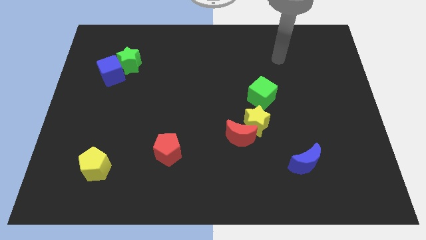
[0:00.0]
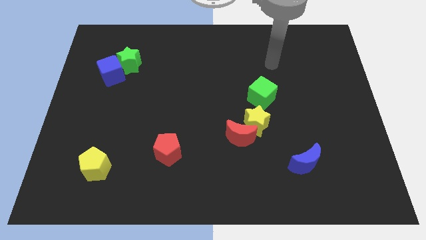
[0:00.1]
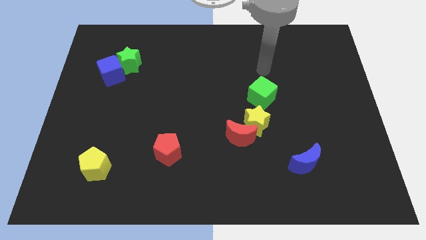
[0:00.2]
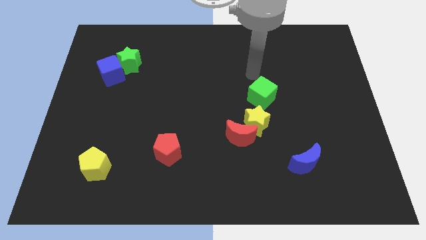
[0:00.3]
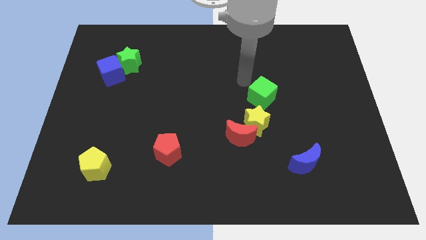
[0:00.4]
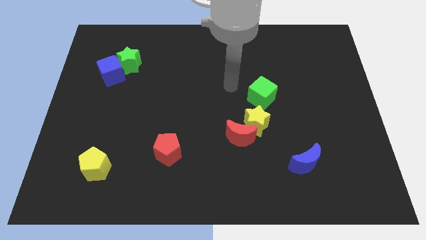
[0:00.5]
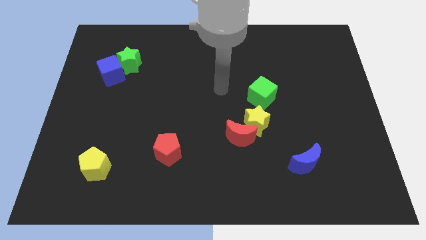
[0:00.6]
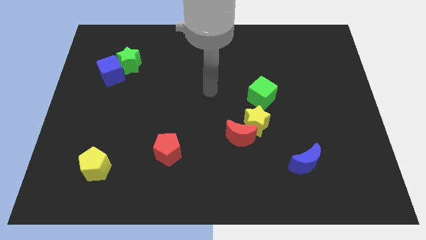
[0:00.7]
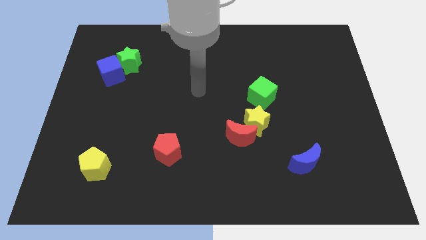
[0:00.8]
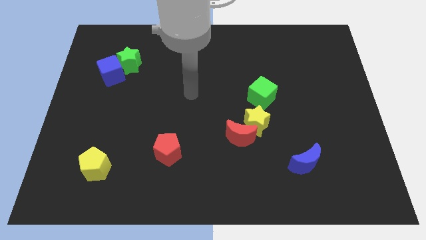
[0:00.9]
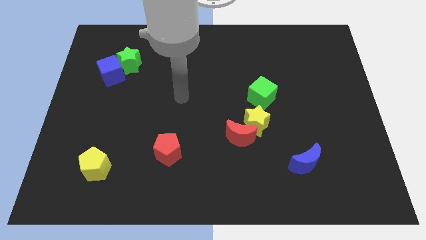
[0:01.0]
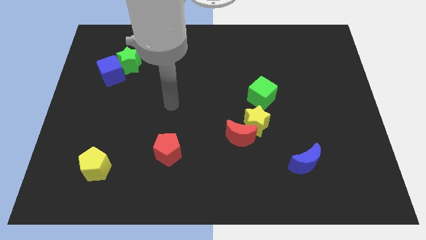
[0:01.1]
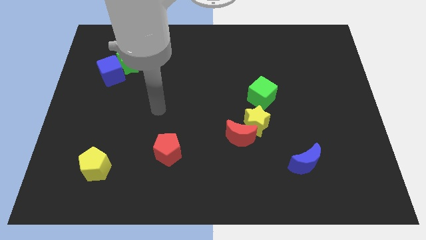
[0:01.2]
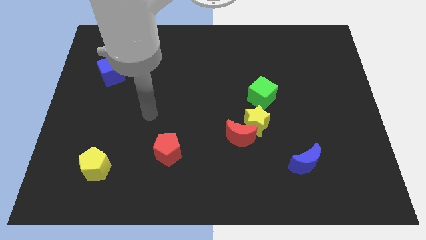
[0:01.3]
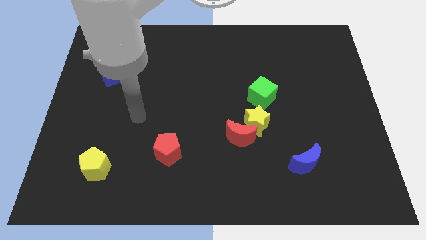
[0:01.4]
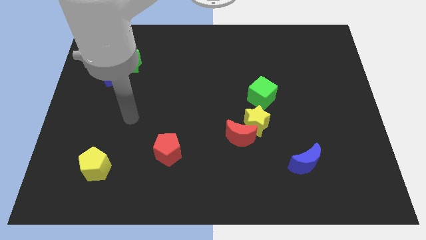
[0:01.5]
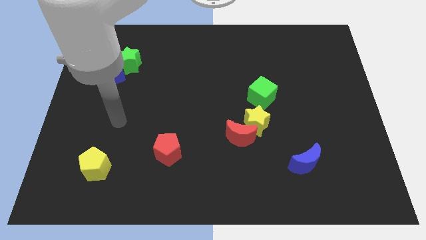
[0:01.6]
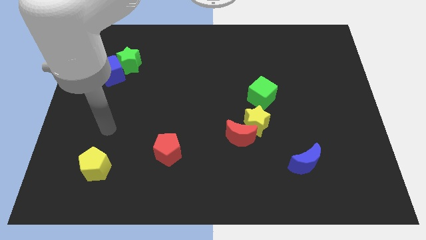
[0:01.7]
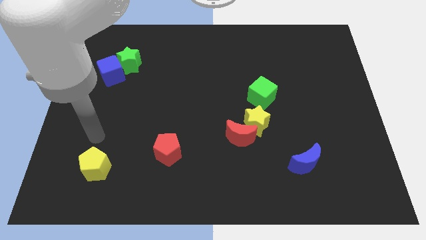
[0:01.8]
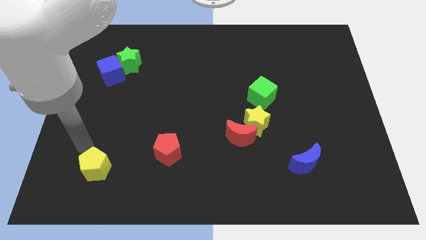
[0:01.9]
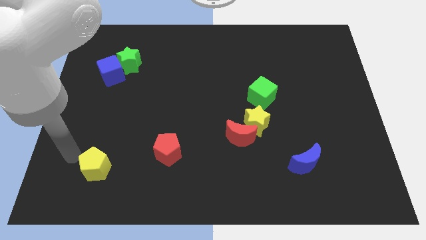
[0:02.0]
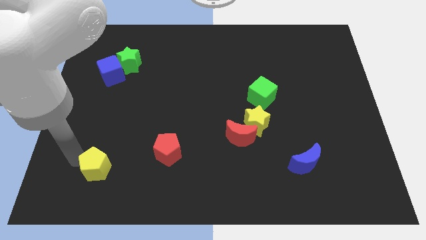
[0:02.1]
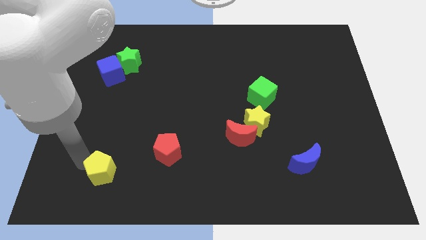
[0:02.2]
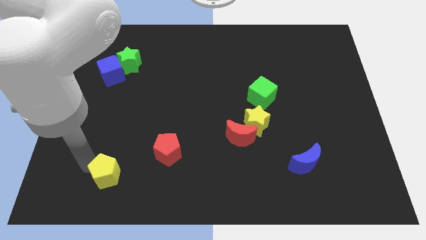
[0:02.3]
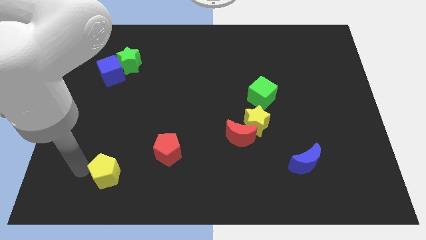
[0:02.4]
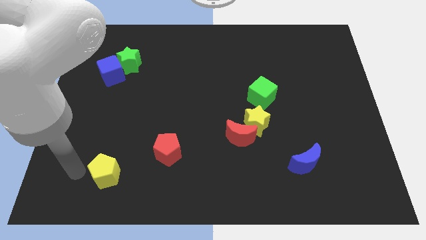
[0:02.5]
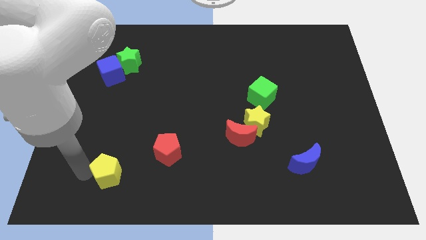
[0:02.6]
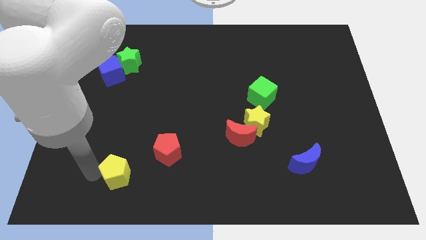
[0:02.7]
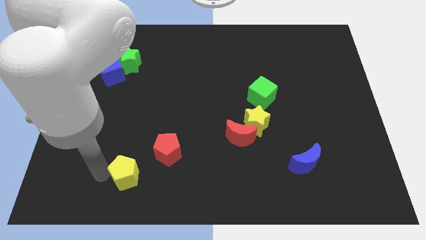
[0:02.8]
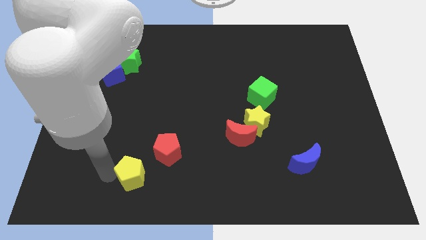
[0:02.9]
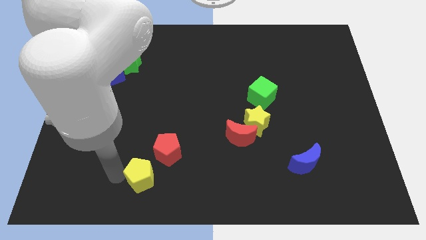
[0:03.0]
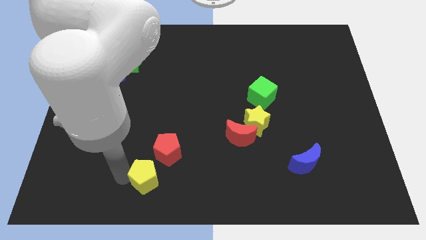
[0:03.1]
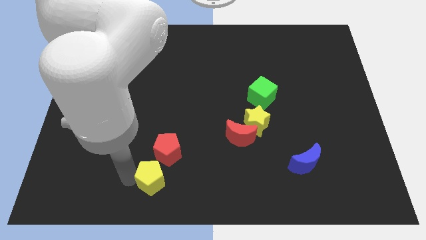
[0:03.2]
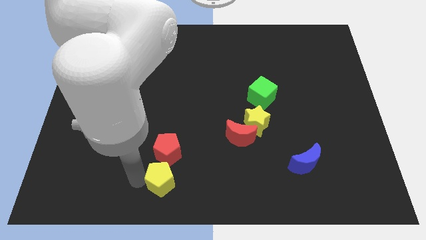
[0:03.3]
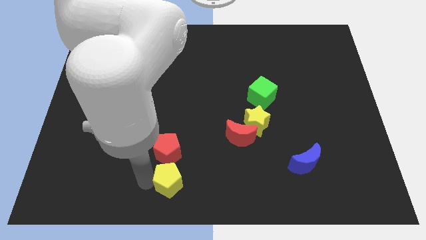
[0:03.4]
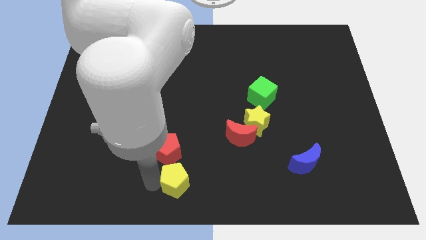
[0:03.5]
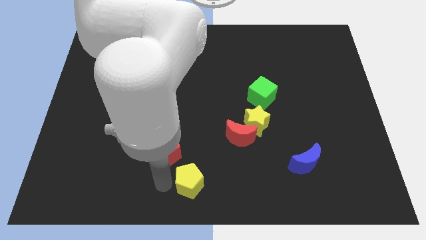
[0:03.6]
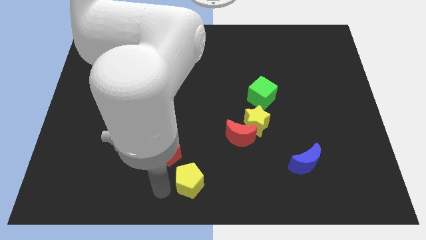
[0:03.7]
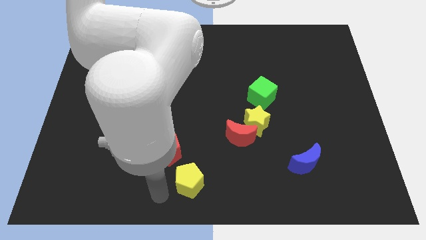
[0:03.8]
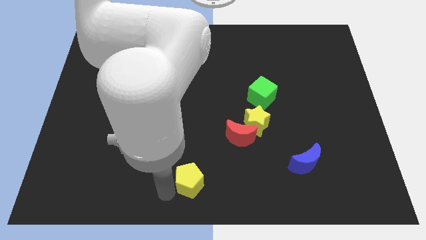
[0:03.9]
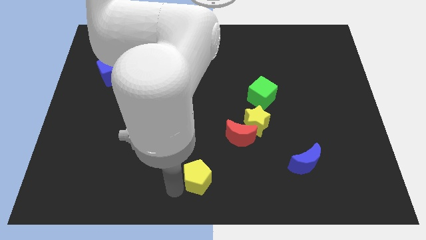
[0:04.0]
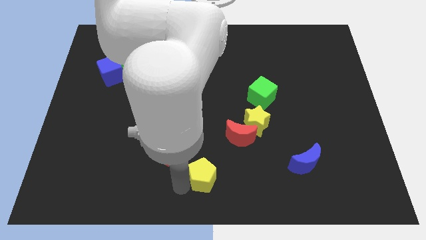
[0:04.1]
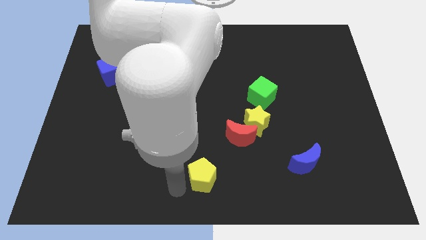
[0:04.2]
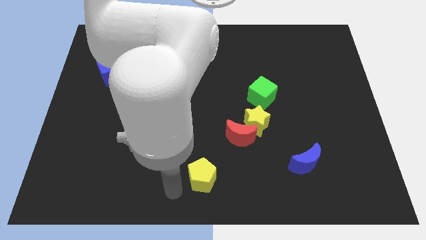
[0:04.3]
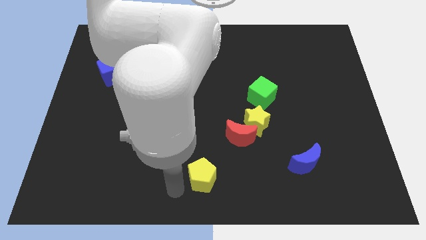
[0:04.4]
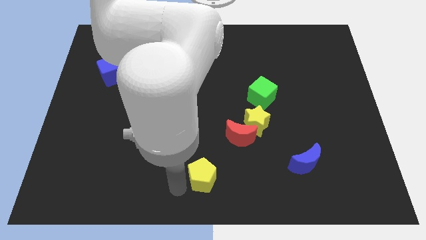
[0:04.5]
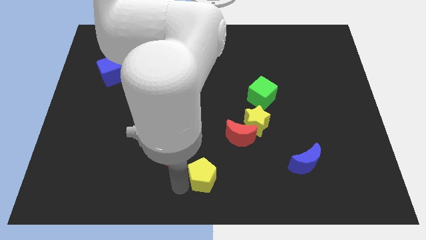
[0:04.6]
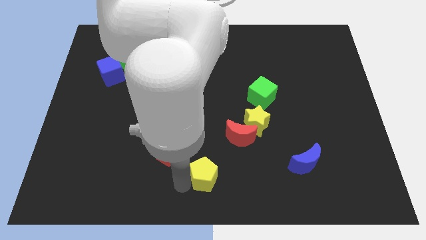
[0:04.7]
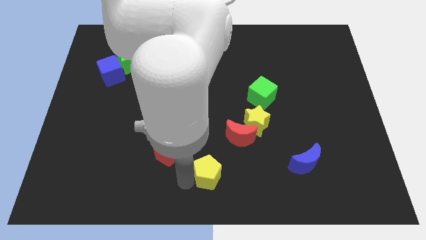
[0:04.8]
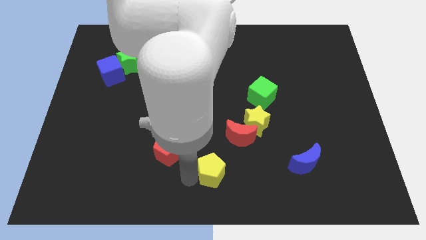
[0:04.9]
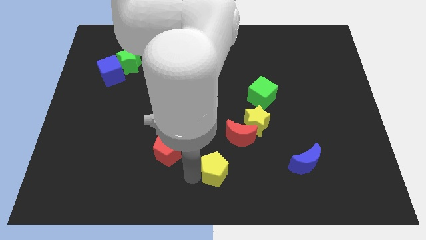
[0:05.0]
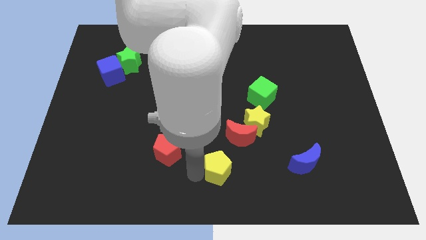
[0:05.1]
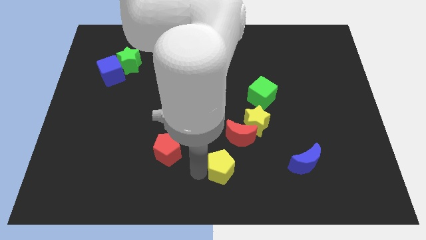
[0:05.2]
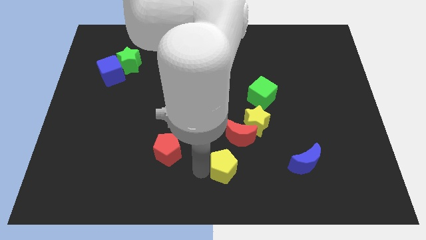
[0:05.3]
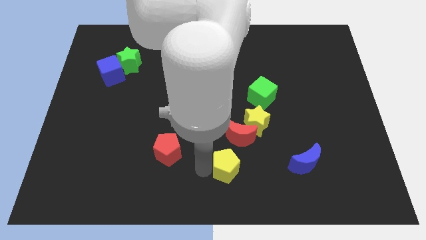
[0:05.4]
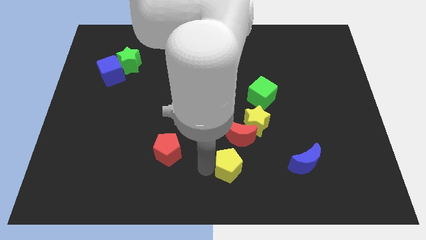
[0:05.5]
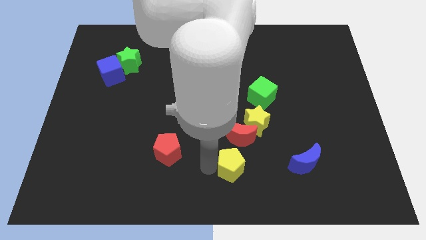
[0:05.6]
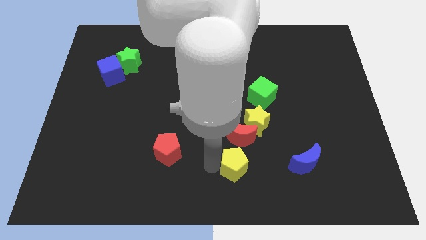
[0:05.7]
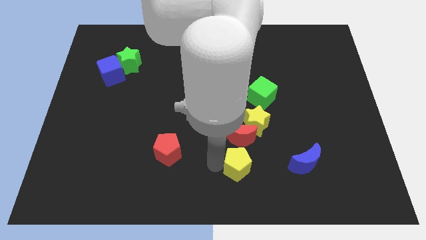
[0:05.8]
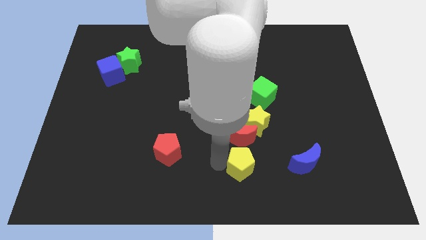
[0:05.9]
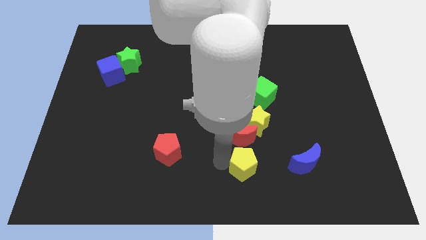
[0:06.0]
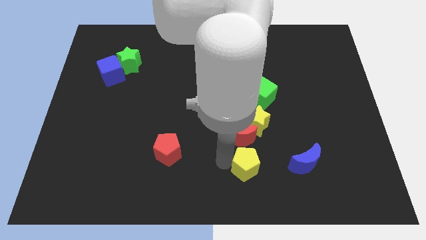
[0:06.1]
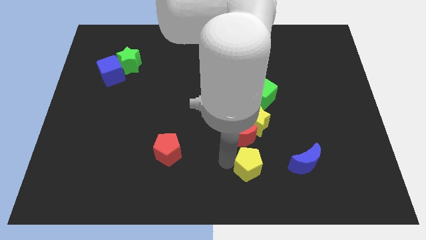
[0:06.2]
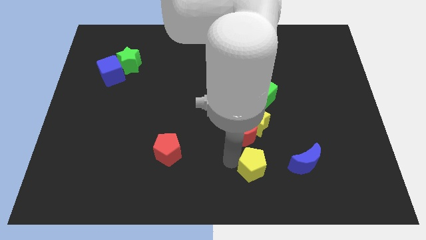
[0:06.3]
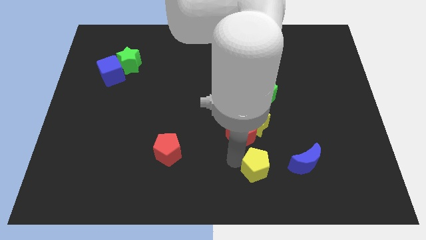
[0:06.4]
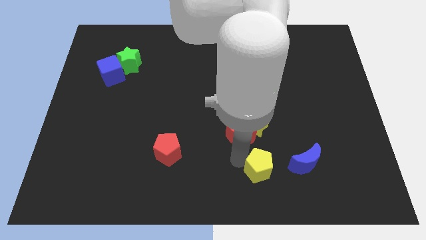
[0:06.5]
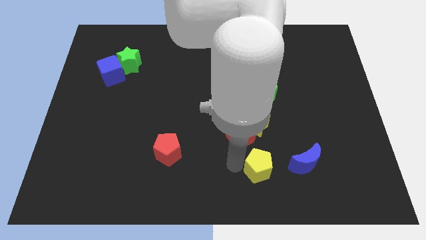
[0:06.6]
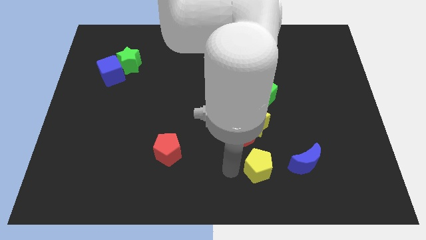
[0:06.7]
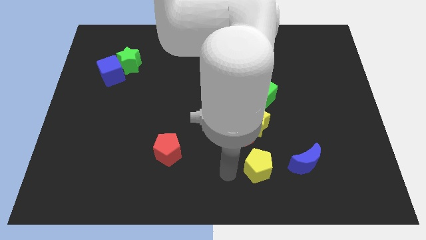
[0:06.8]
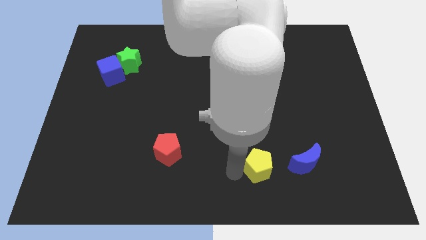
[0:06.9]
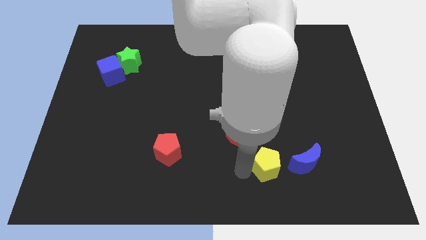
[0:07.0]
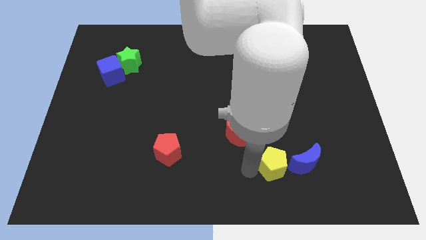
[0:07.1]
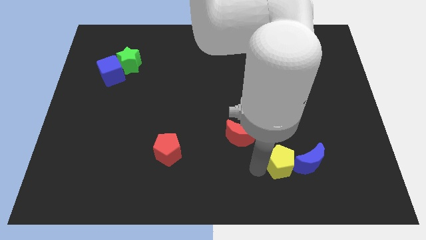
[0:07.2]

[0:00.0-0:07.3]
move the yellow pentagon next to the blue moon
